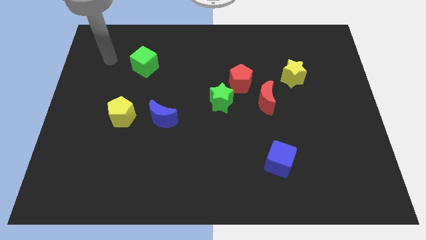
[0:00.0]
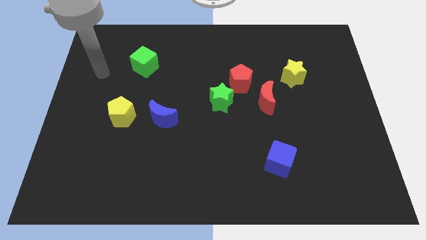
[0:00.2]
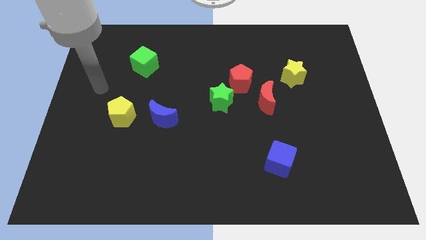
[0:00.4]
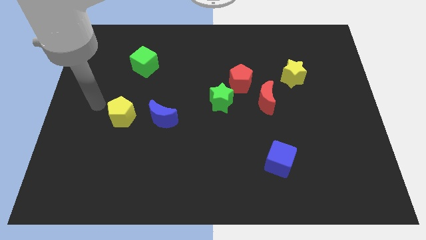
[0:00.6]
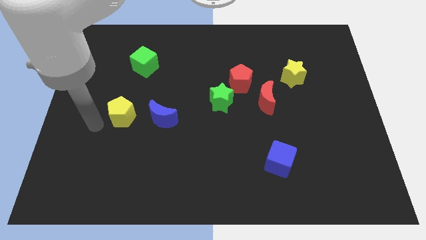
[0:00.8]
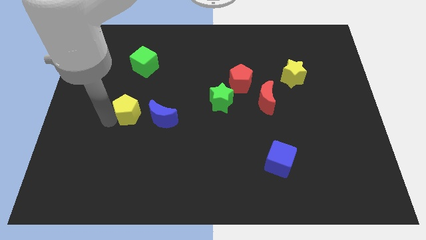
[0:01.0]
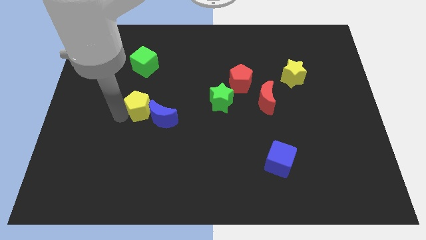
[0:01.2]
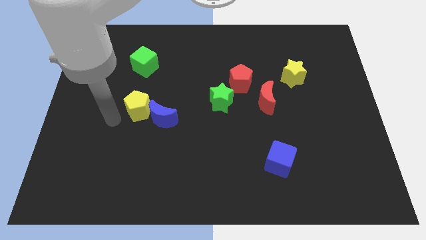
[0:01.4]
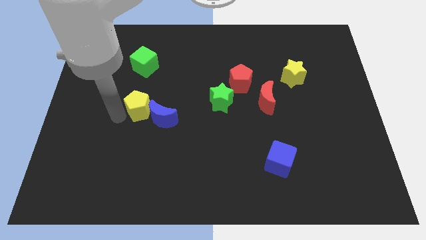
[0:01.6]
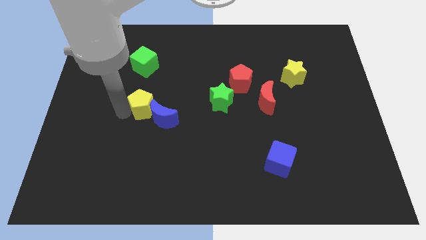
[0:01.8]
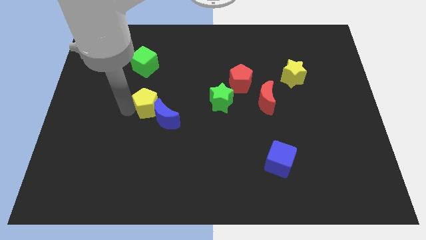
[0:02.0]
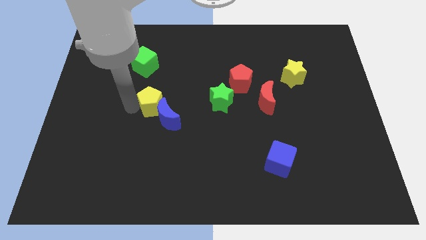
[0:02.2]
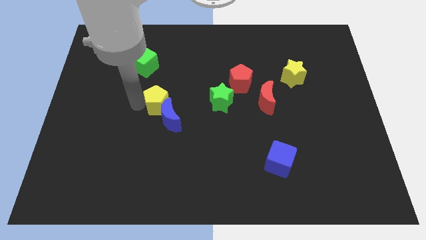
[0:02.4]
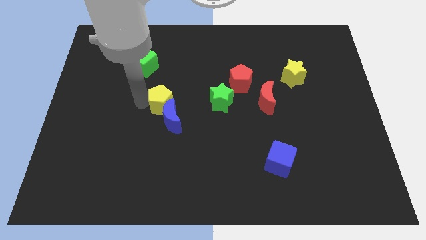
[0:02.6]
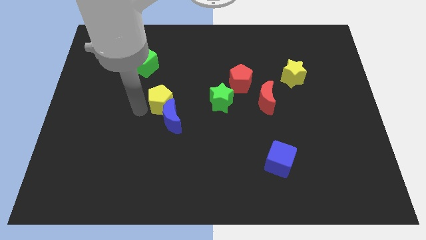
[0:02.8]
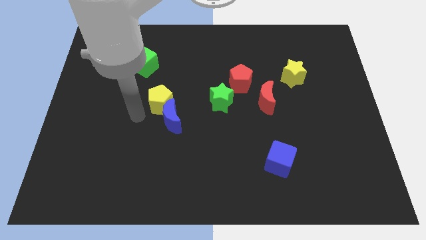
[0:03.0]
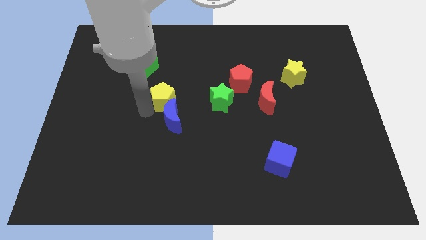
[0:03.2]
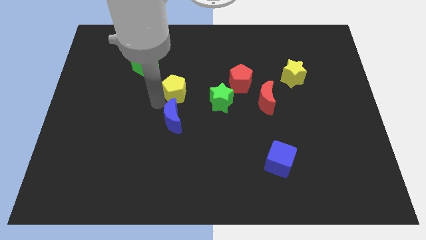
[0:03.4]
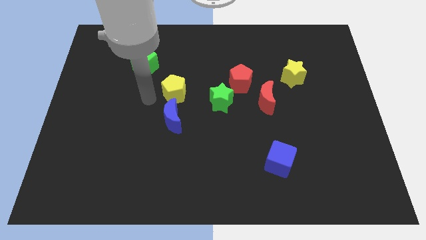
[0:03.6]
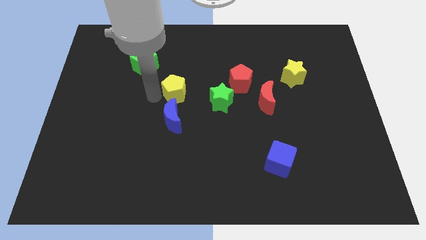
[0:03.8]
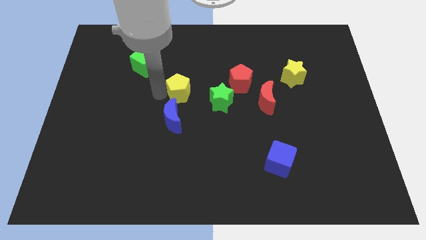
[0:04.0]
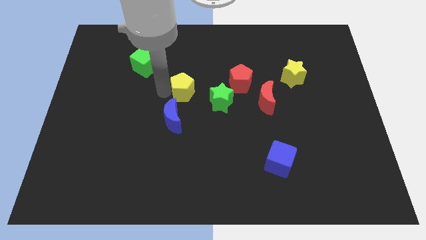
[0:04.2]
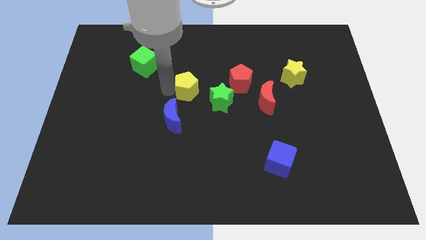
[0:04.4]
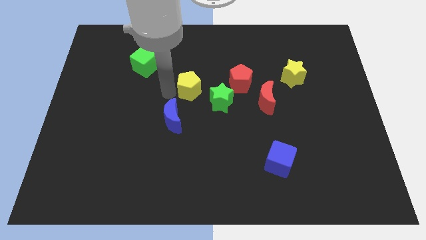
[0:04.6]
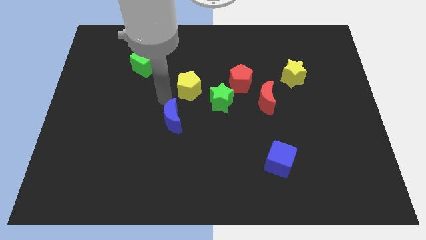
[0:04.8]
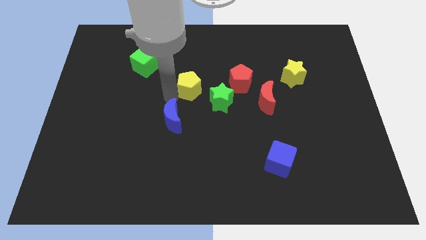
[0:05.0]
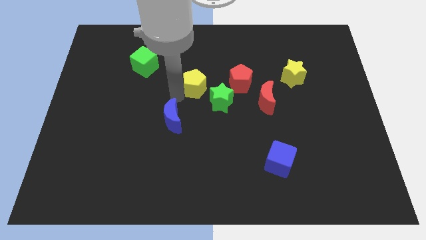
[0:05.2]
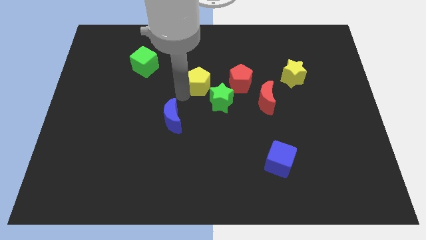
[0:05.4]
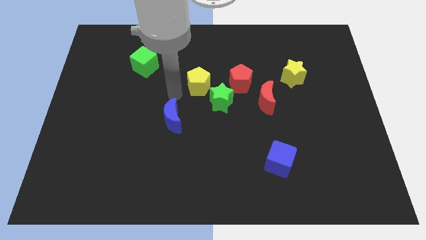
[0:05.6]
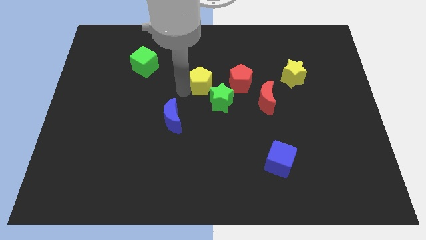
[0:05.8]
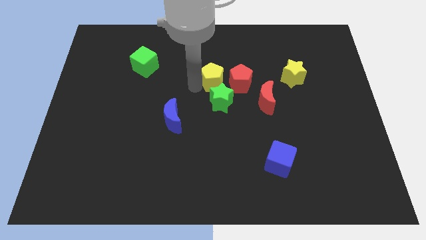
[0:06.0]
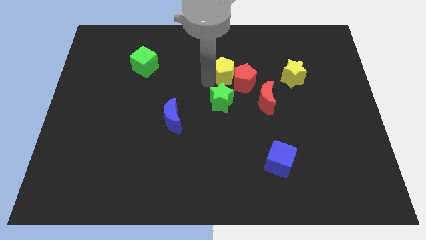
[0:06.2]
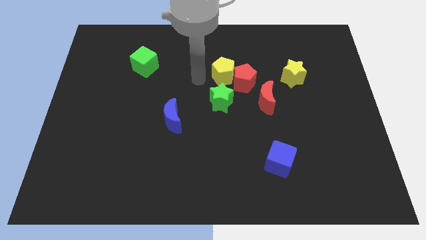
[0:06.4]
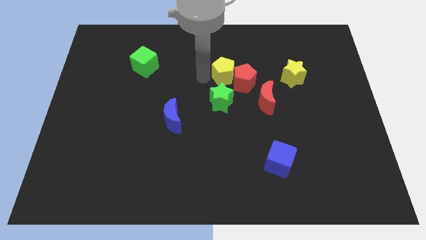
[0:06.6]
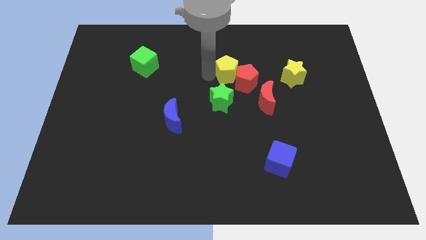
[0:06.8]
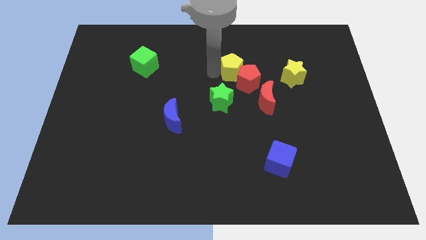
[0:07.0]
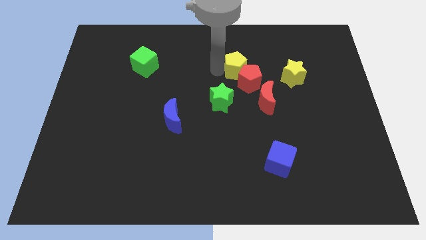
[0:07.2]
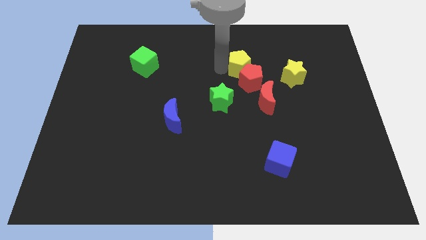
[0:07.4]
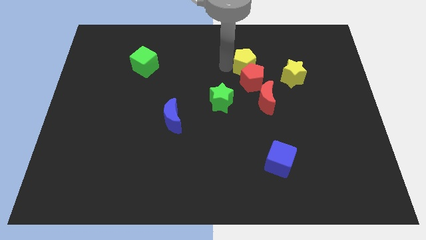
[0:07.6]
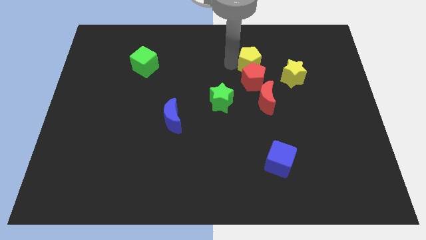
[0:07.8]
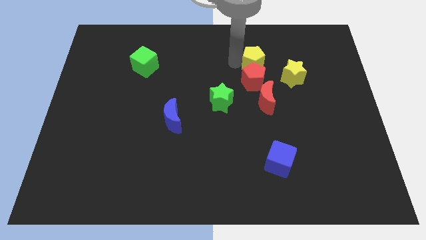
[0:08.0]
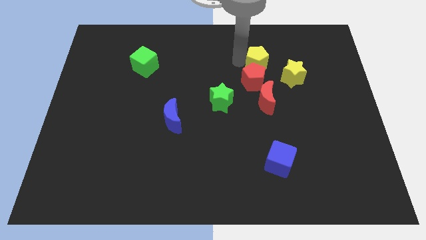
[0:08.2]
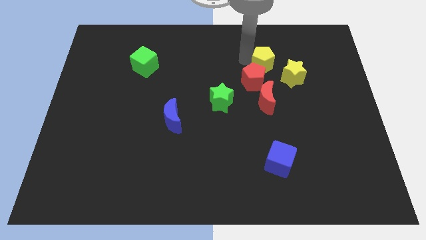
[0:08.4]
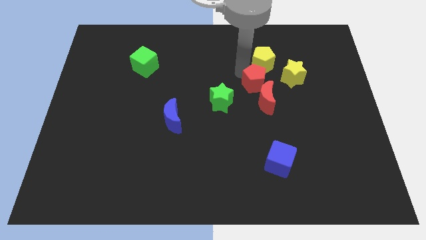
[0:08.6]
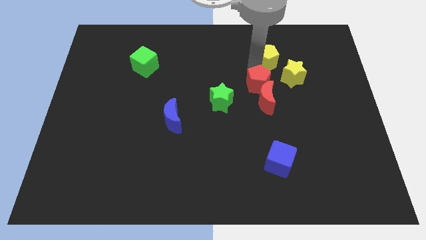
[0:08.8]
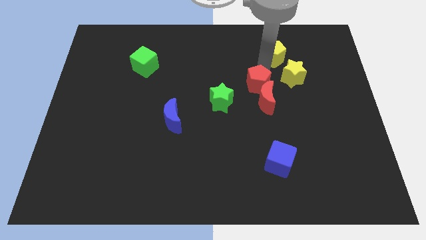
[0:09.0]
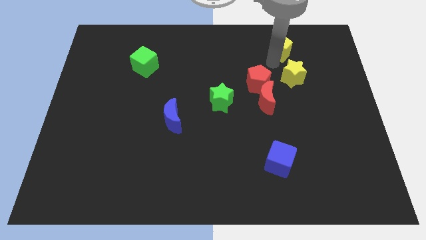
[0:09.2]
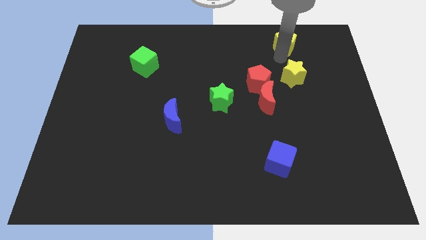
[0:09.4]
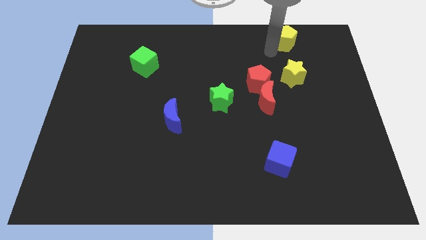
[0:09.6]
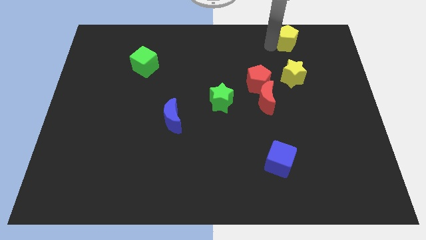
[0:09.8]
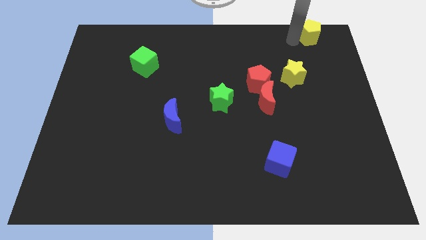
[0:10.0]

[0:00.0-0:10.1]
push the yellow pentagon to the upper right corner

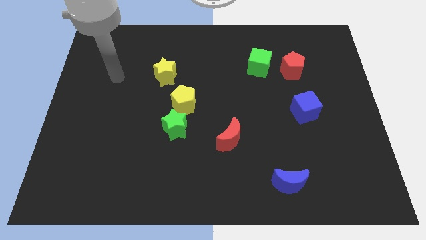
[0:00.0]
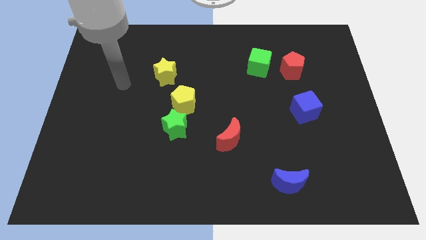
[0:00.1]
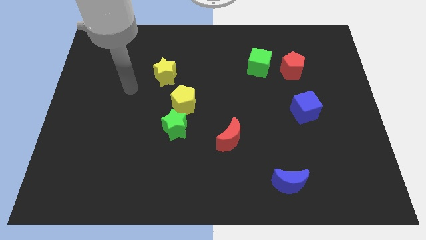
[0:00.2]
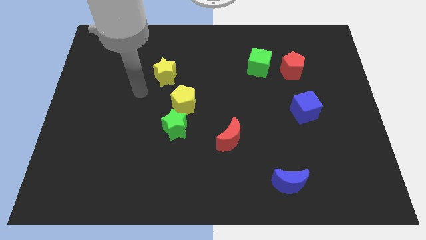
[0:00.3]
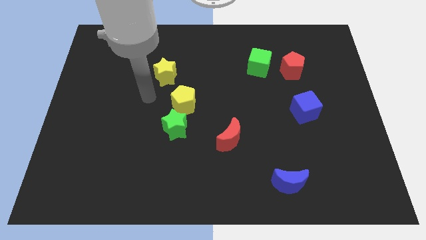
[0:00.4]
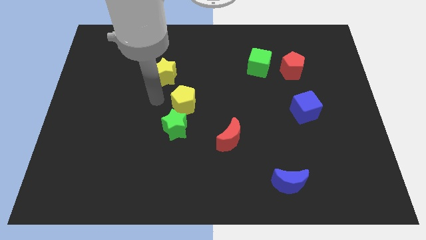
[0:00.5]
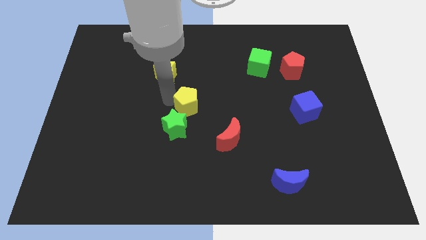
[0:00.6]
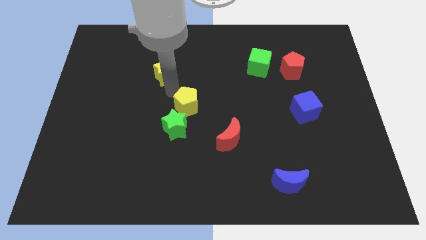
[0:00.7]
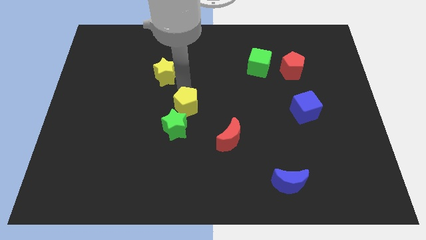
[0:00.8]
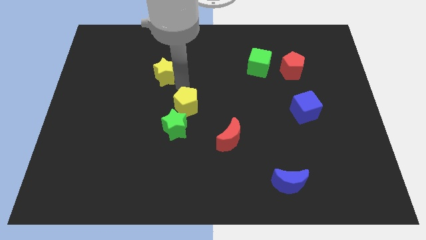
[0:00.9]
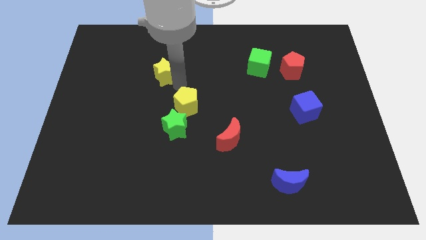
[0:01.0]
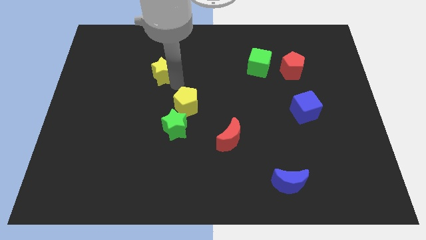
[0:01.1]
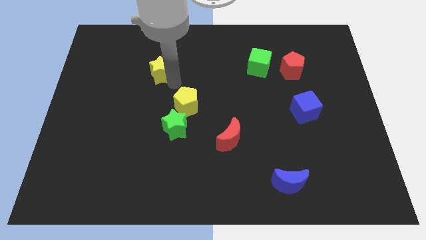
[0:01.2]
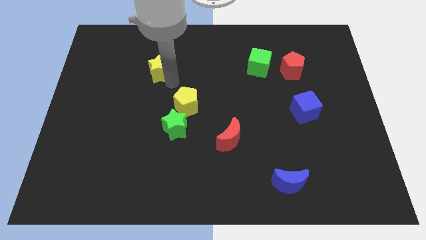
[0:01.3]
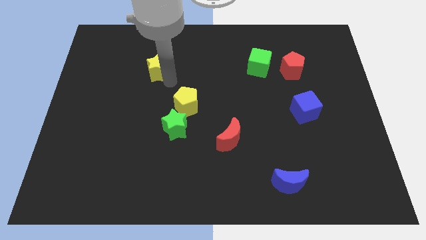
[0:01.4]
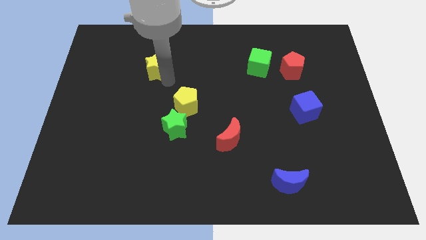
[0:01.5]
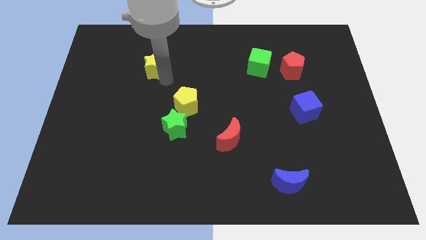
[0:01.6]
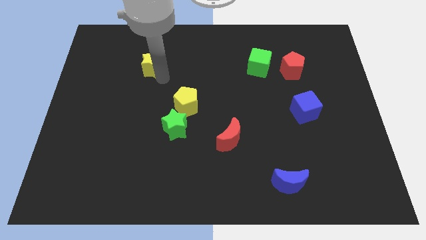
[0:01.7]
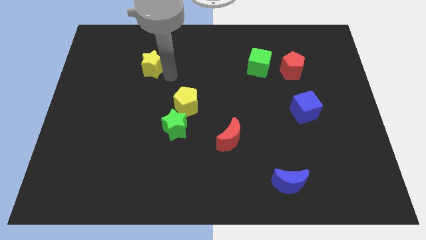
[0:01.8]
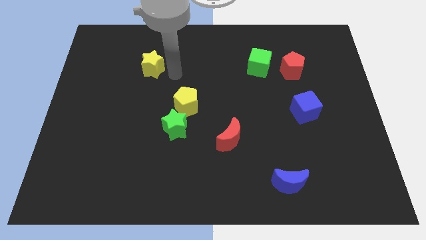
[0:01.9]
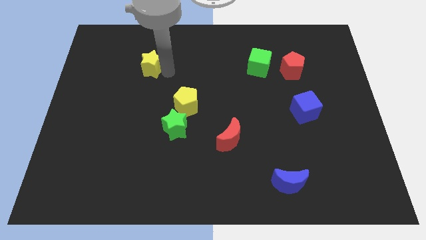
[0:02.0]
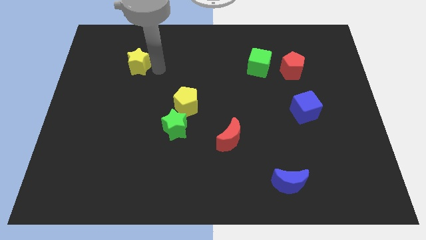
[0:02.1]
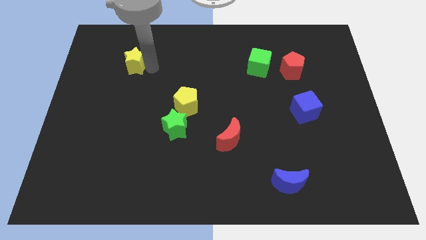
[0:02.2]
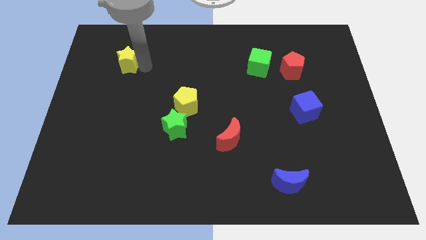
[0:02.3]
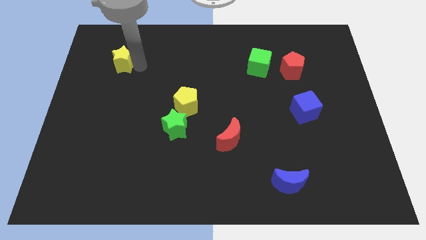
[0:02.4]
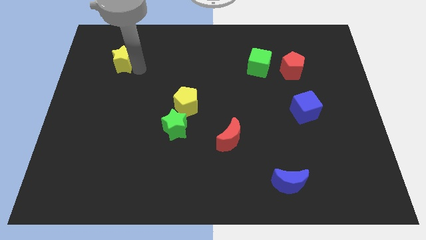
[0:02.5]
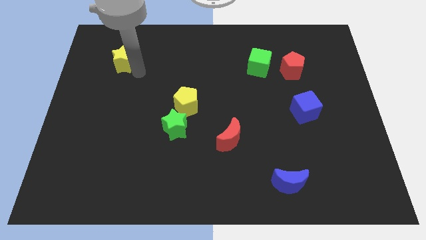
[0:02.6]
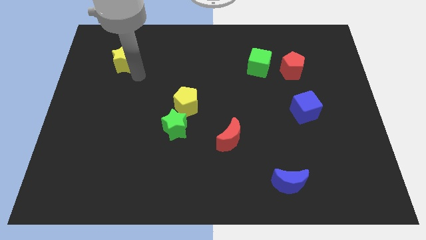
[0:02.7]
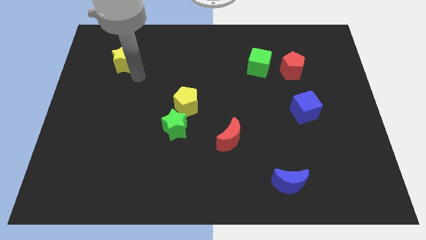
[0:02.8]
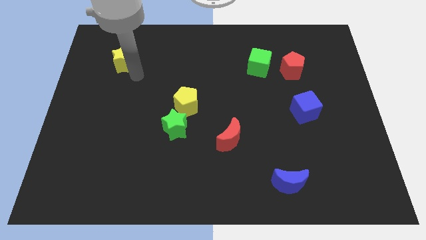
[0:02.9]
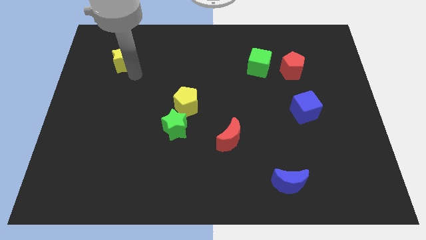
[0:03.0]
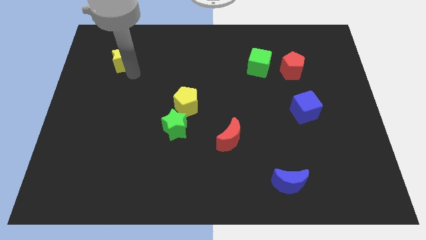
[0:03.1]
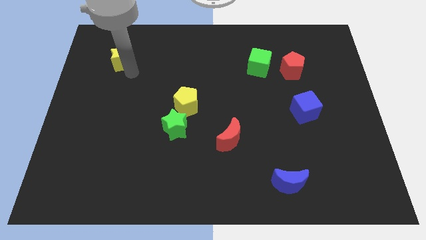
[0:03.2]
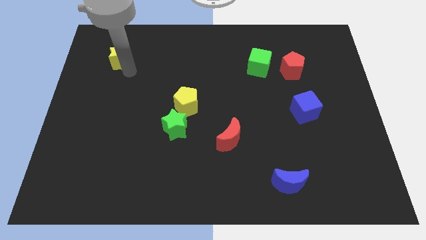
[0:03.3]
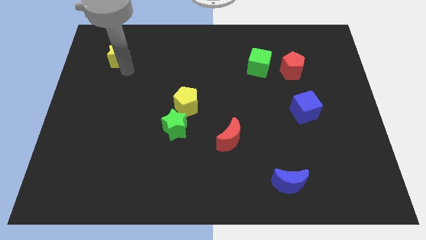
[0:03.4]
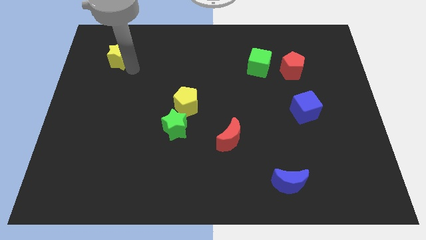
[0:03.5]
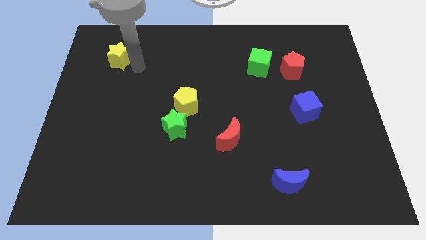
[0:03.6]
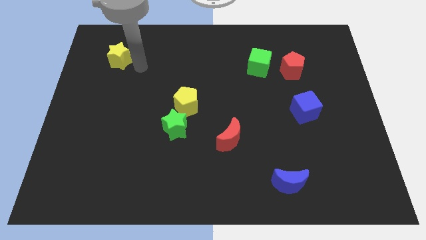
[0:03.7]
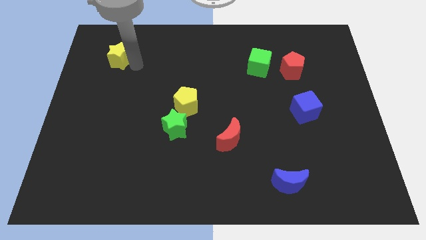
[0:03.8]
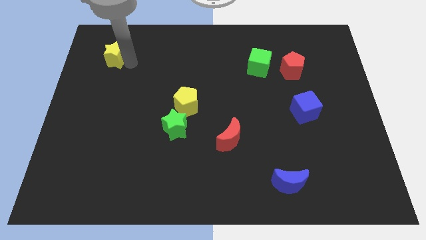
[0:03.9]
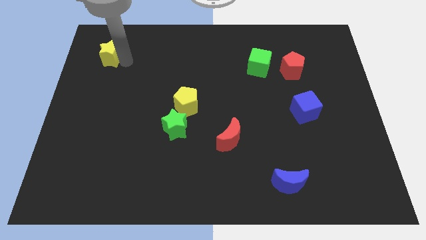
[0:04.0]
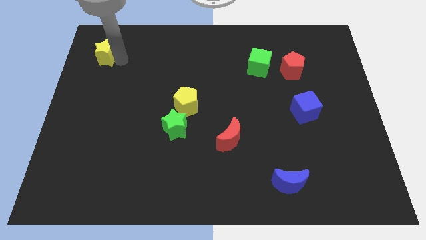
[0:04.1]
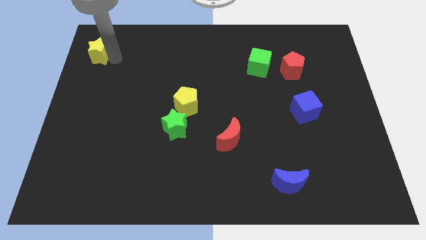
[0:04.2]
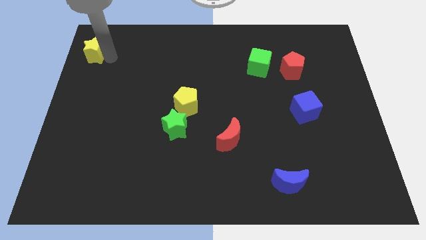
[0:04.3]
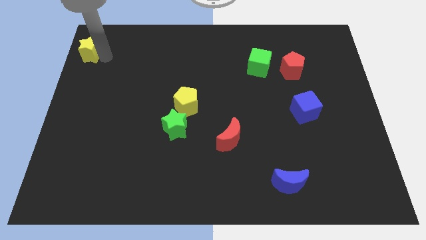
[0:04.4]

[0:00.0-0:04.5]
put the yellow star to the upper left corner
